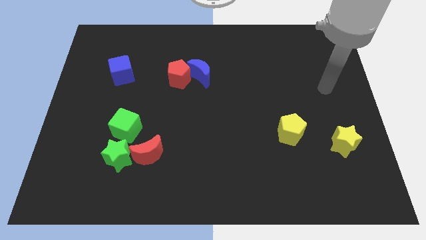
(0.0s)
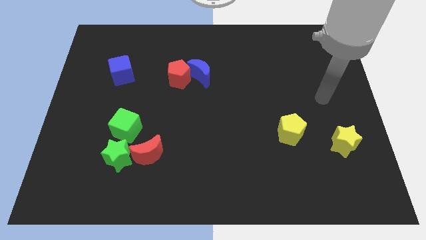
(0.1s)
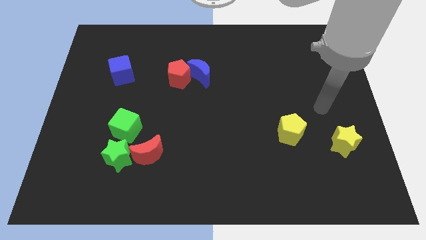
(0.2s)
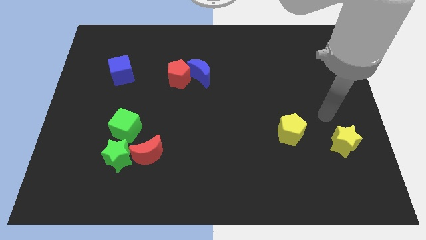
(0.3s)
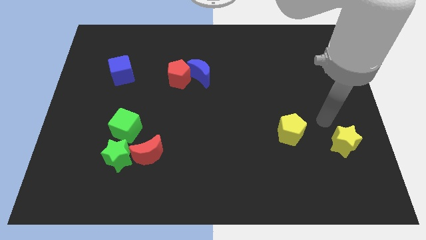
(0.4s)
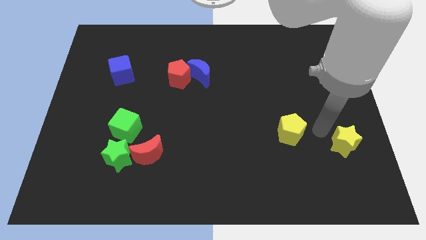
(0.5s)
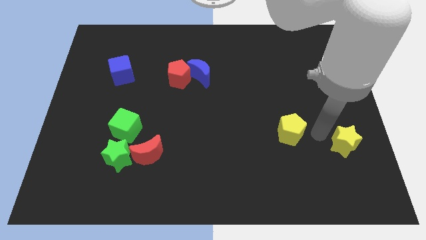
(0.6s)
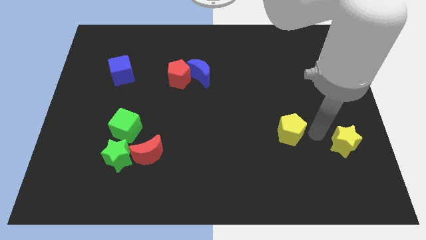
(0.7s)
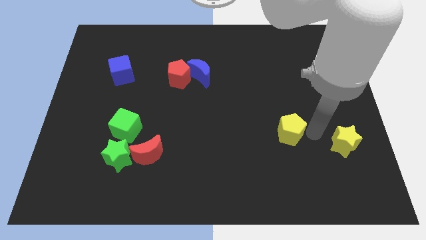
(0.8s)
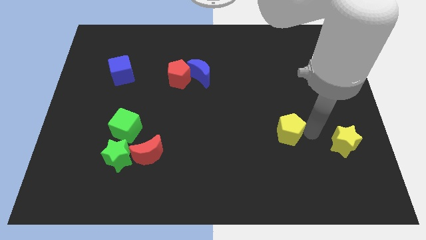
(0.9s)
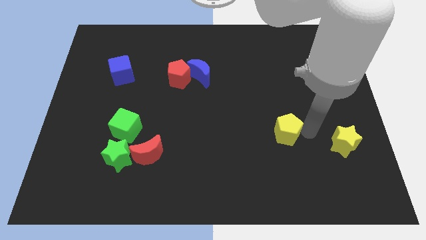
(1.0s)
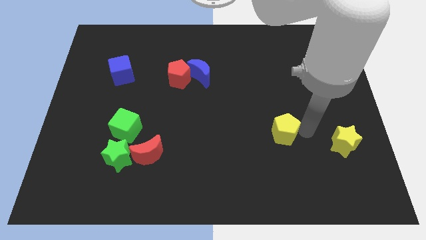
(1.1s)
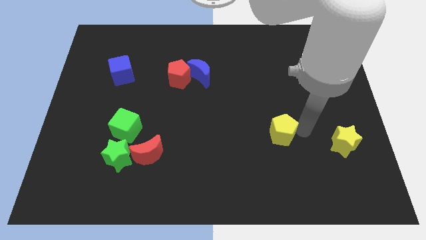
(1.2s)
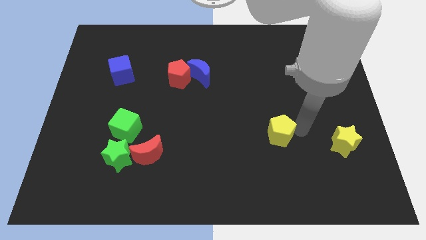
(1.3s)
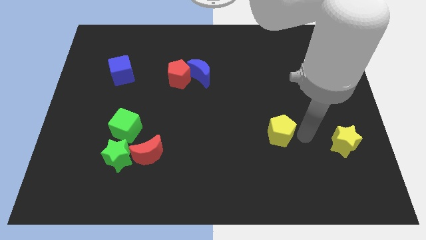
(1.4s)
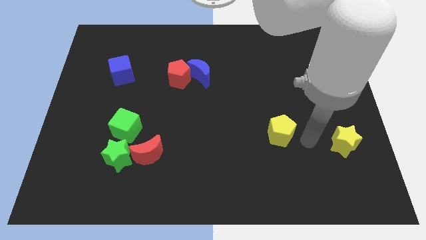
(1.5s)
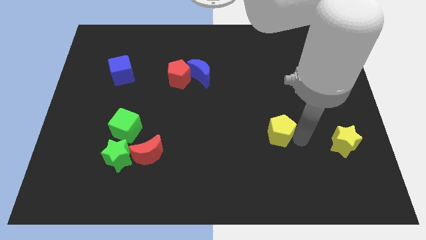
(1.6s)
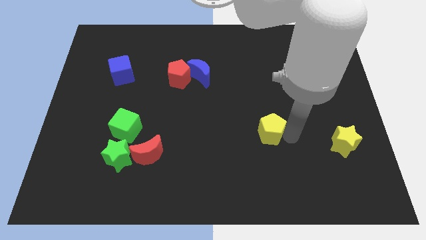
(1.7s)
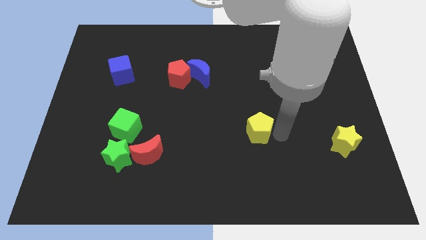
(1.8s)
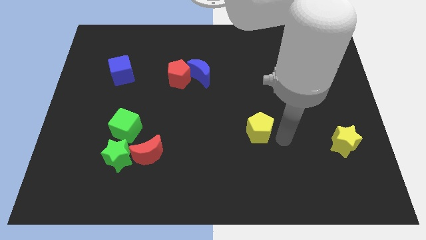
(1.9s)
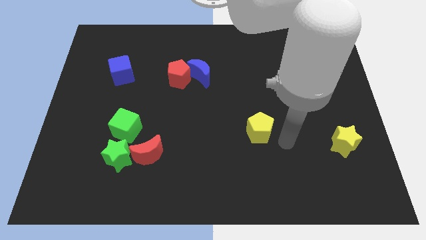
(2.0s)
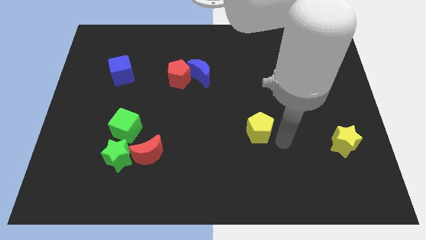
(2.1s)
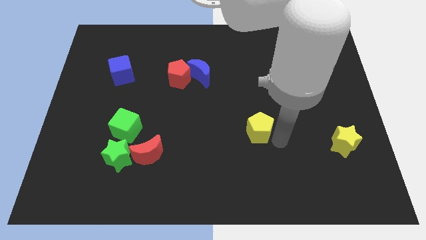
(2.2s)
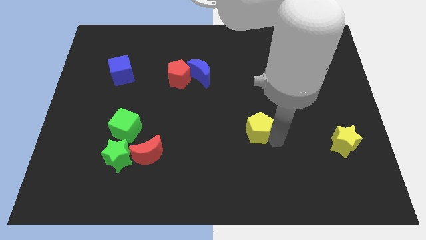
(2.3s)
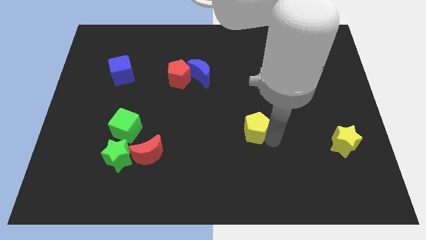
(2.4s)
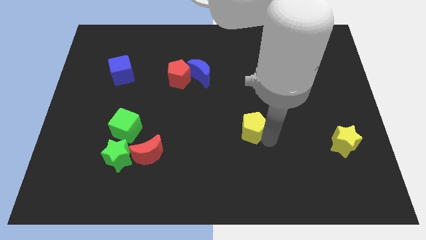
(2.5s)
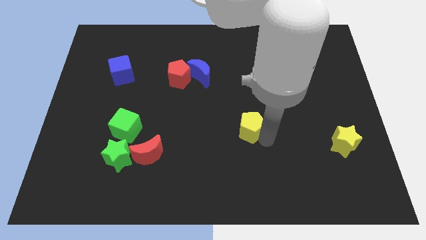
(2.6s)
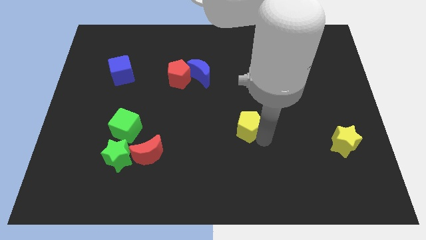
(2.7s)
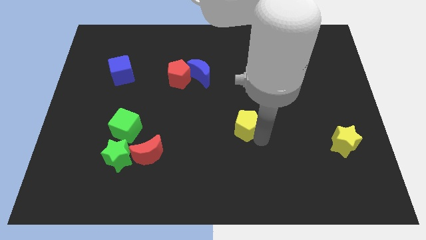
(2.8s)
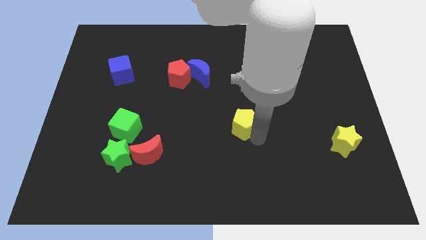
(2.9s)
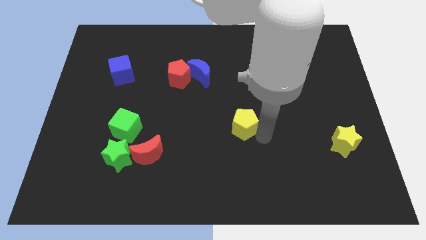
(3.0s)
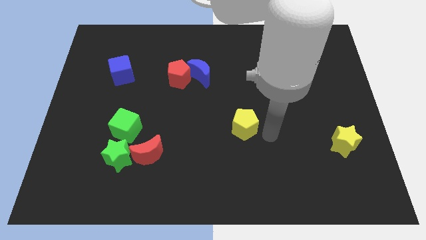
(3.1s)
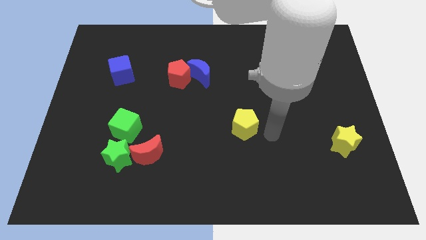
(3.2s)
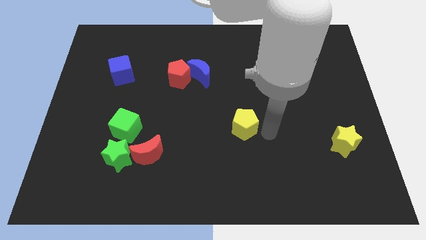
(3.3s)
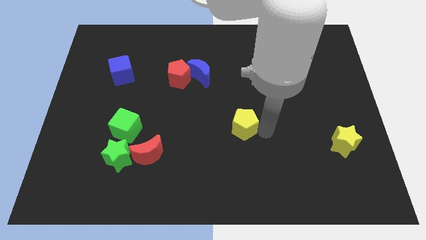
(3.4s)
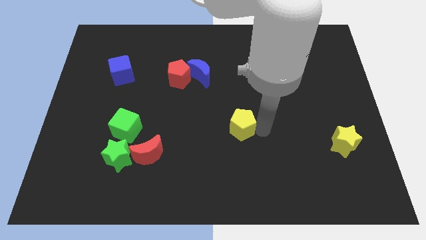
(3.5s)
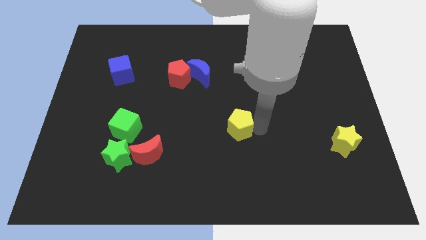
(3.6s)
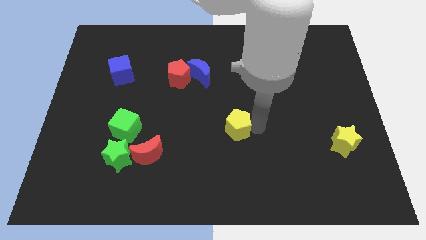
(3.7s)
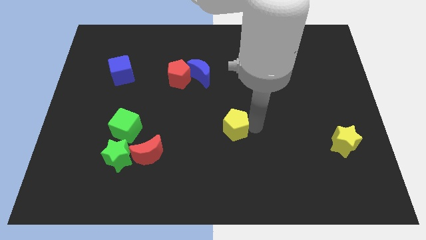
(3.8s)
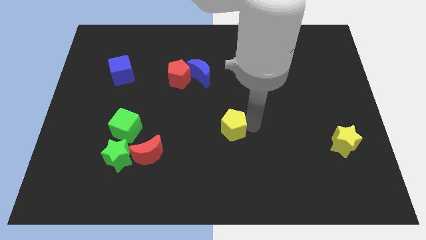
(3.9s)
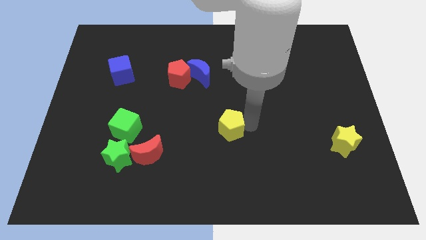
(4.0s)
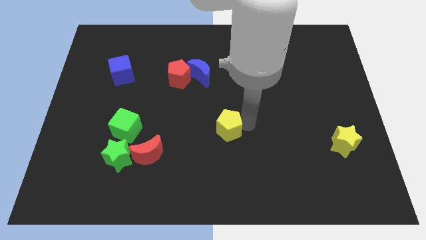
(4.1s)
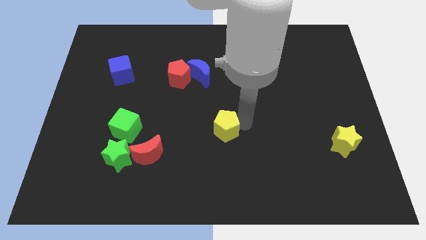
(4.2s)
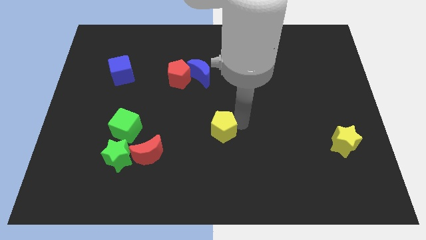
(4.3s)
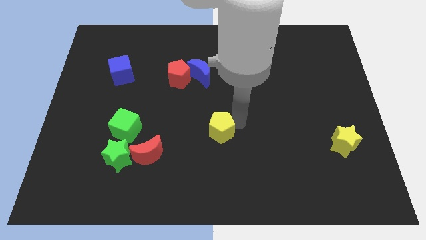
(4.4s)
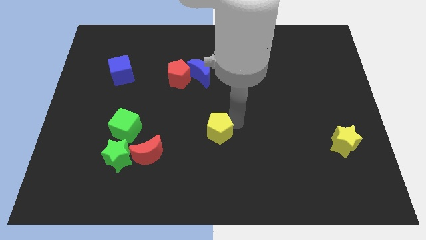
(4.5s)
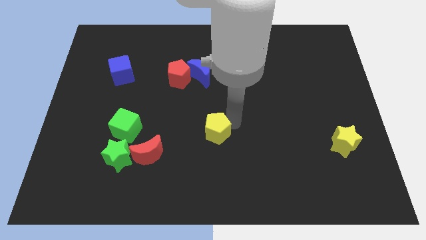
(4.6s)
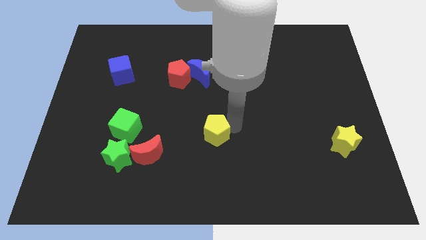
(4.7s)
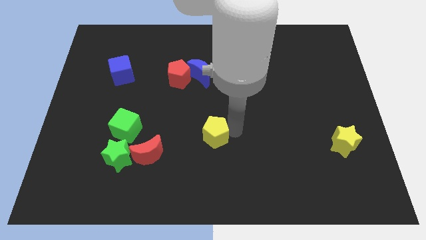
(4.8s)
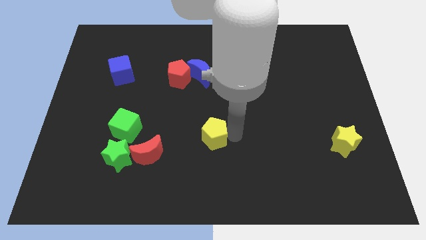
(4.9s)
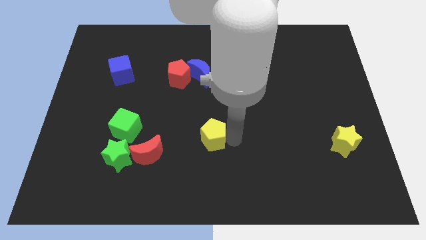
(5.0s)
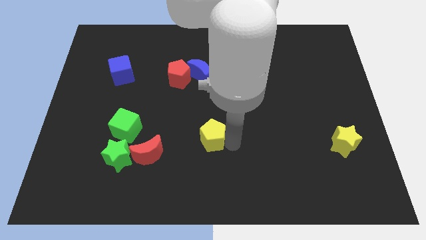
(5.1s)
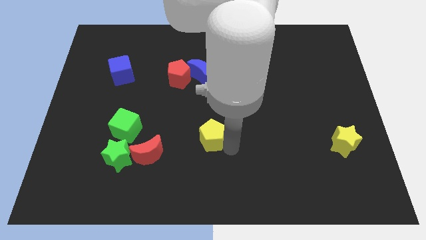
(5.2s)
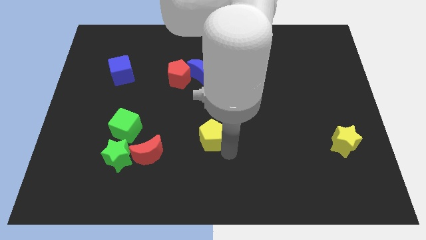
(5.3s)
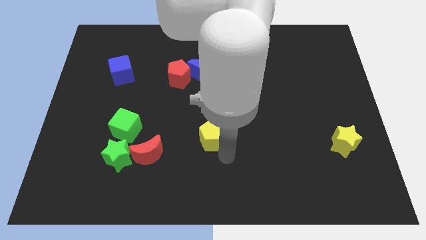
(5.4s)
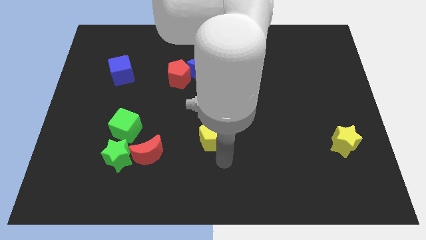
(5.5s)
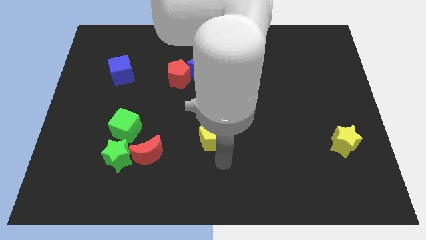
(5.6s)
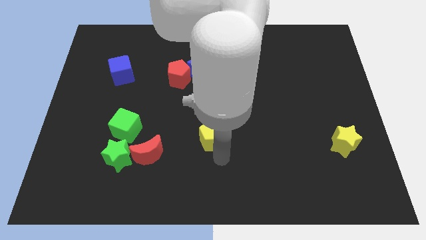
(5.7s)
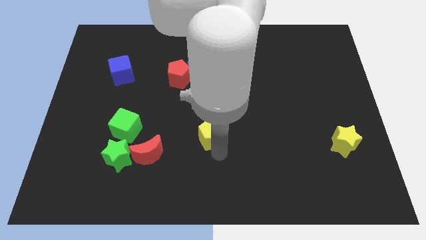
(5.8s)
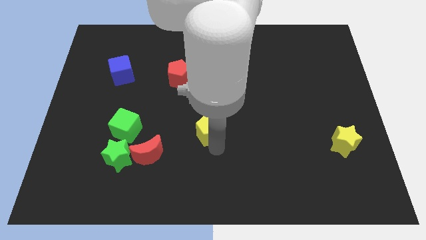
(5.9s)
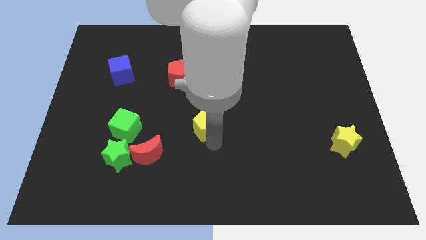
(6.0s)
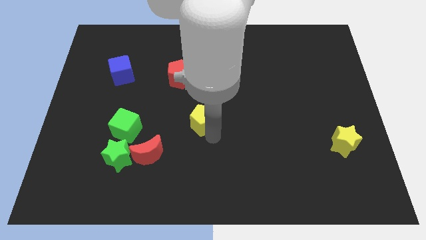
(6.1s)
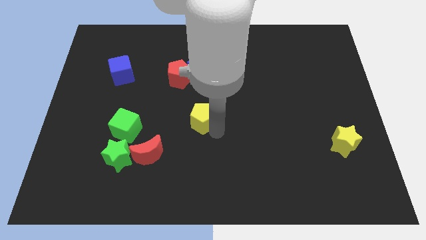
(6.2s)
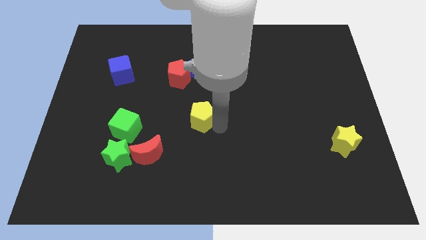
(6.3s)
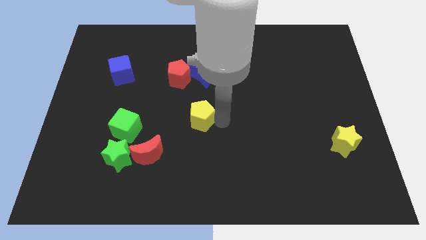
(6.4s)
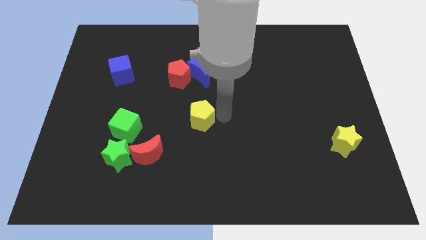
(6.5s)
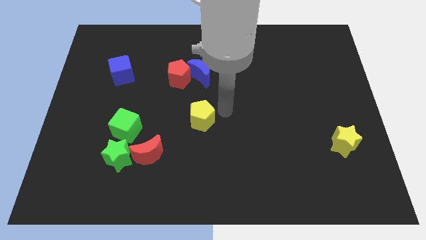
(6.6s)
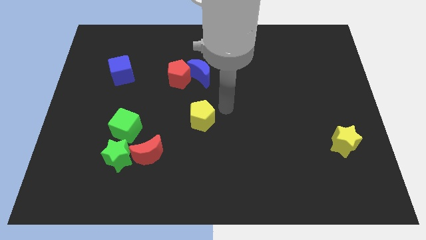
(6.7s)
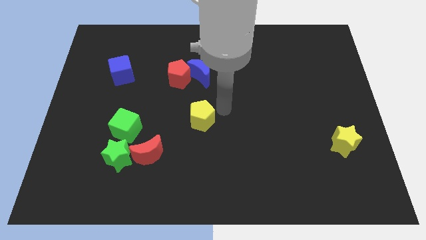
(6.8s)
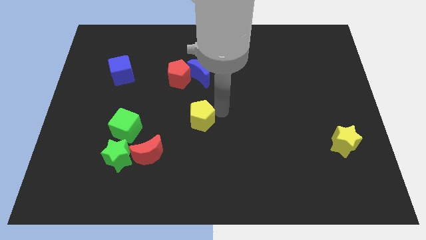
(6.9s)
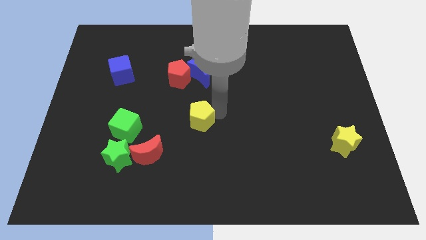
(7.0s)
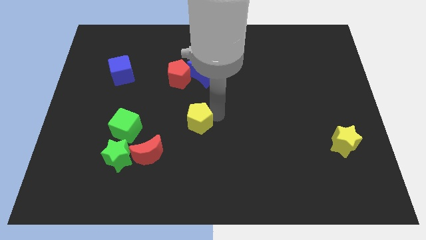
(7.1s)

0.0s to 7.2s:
push the yellow pentagon left

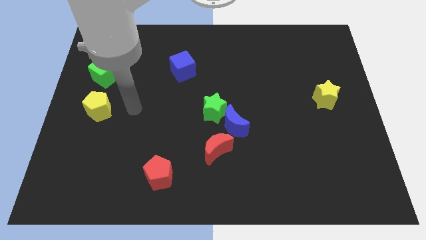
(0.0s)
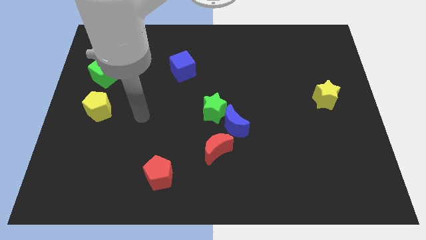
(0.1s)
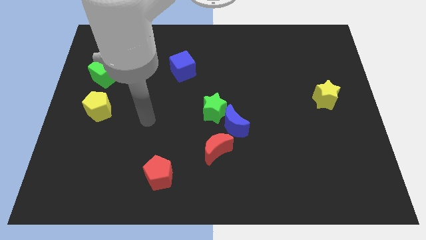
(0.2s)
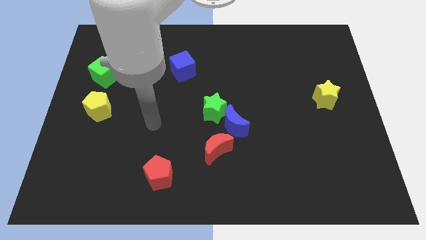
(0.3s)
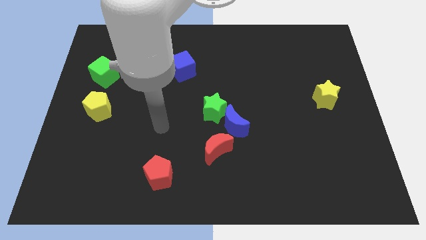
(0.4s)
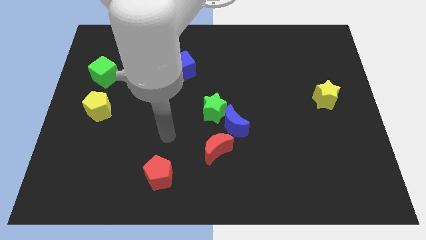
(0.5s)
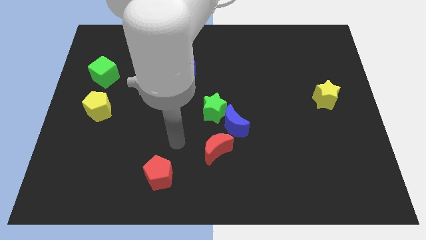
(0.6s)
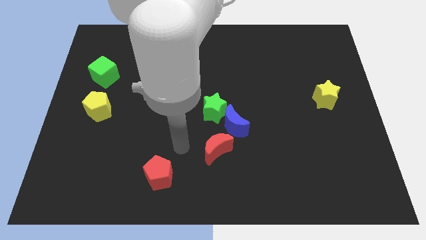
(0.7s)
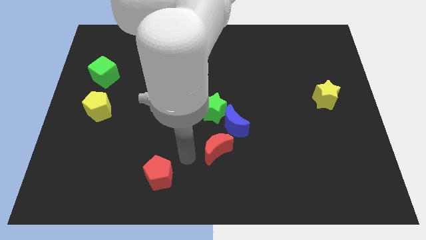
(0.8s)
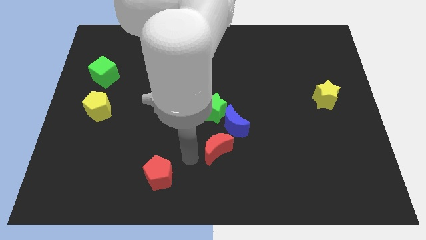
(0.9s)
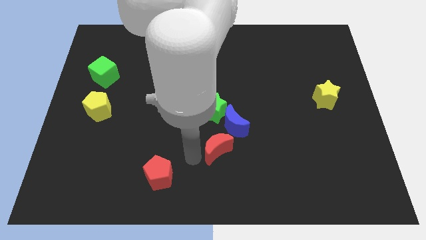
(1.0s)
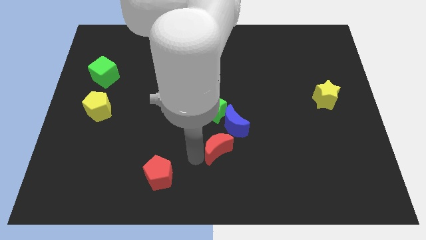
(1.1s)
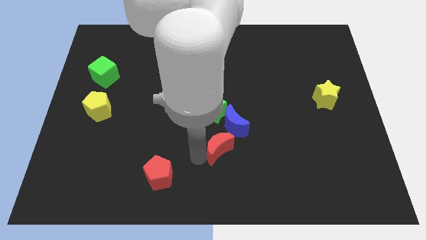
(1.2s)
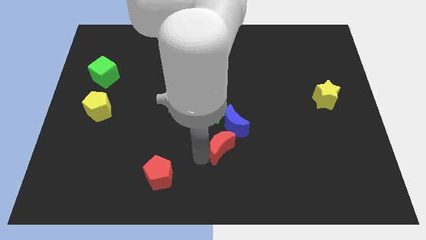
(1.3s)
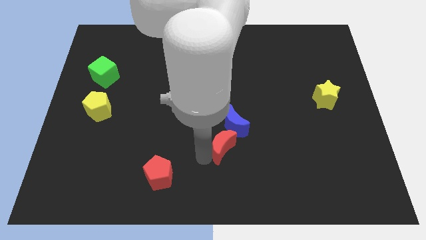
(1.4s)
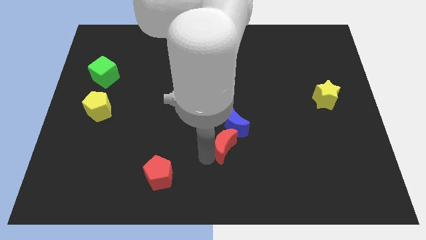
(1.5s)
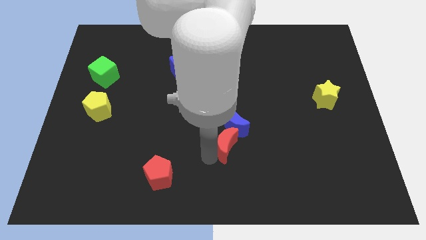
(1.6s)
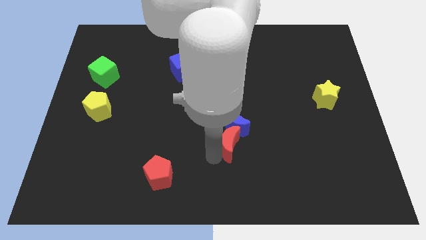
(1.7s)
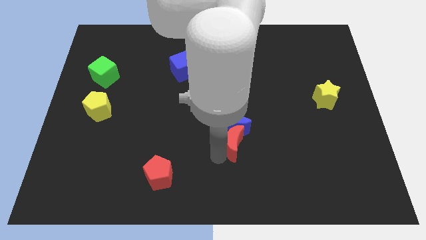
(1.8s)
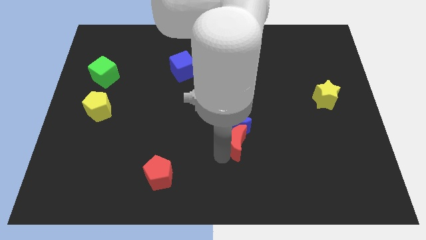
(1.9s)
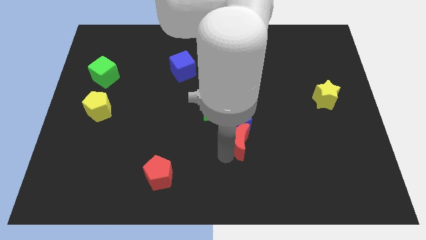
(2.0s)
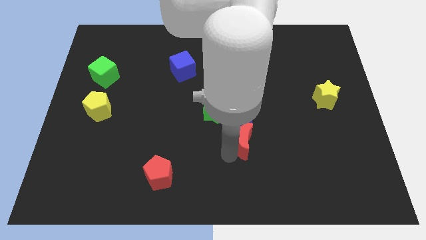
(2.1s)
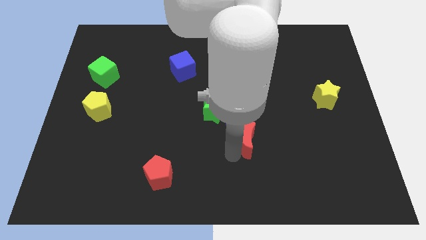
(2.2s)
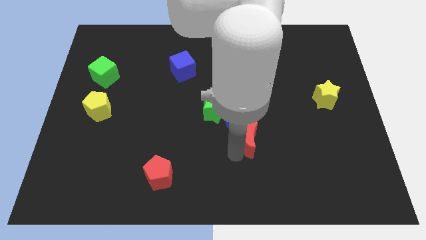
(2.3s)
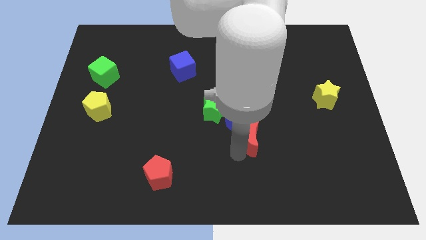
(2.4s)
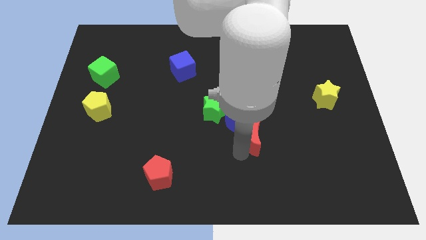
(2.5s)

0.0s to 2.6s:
slightly slide the red moon upwards and to the right diagonally
